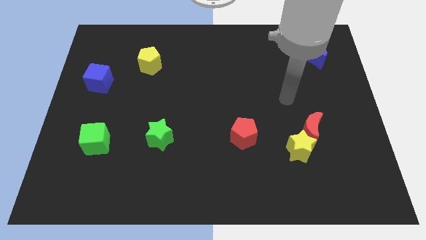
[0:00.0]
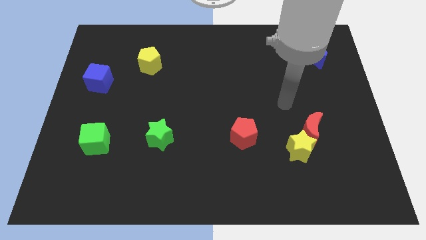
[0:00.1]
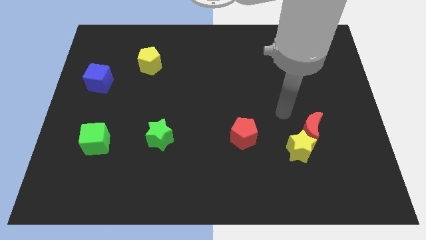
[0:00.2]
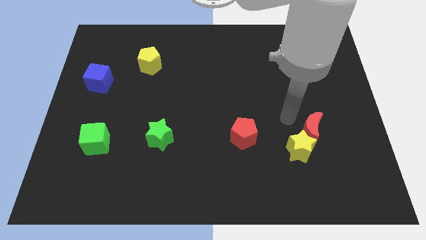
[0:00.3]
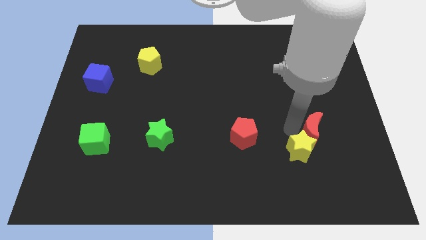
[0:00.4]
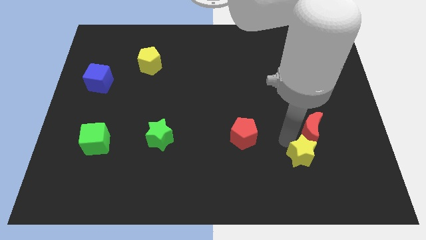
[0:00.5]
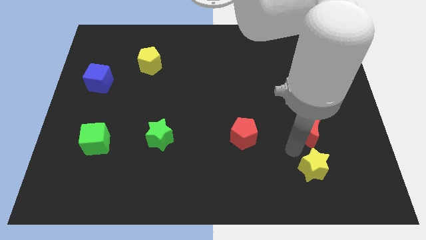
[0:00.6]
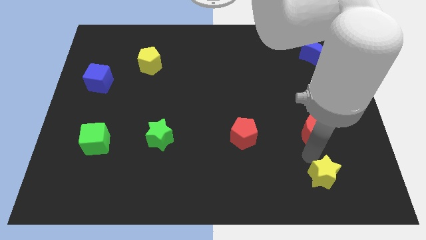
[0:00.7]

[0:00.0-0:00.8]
pull the red moon apart from the yellow star

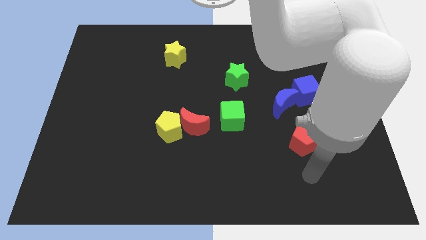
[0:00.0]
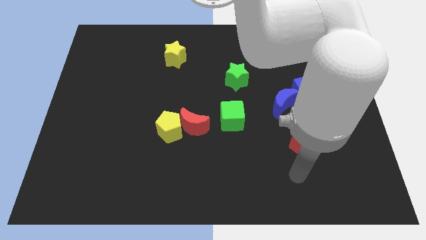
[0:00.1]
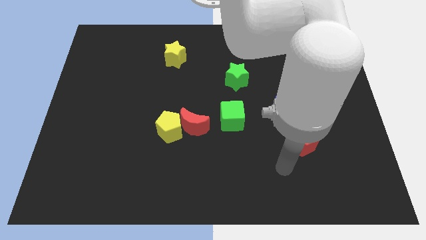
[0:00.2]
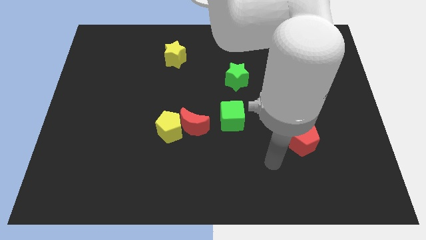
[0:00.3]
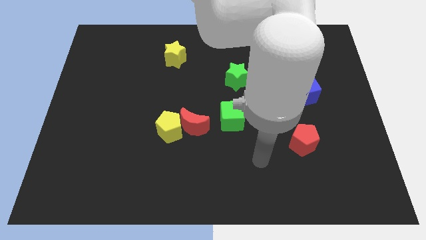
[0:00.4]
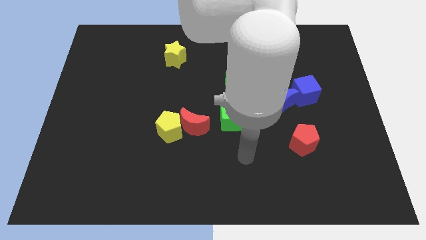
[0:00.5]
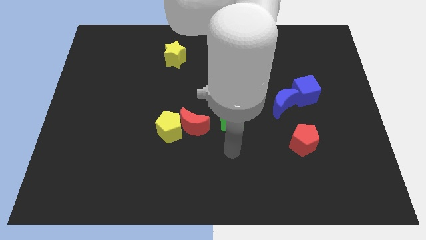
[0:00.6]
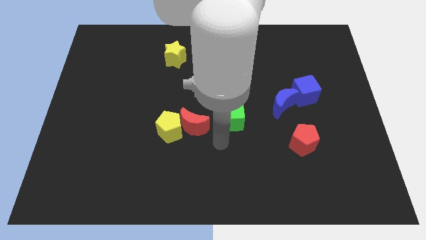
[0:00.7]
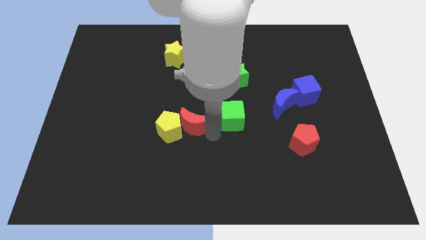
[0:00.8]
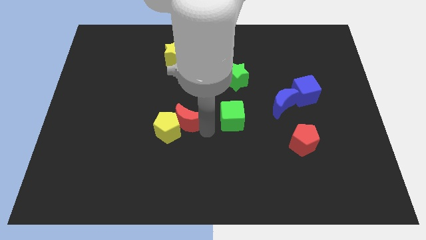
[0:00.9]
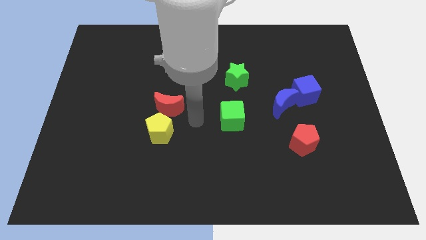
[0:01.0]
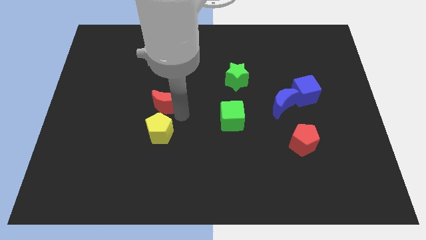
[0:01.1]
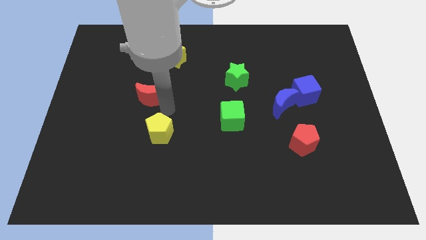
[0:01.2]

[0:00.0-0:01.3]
move the yellow pentagon away from the red moon

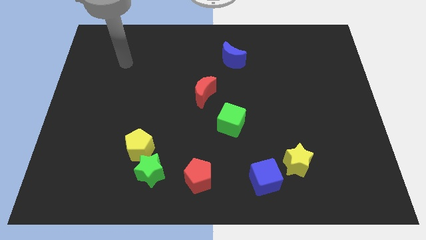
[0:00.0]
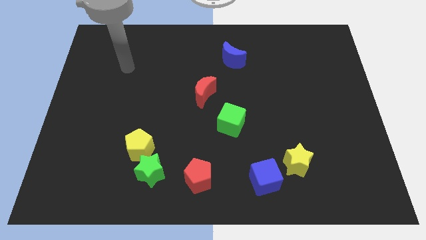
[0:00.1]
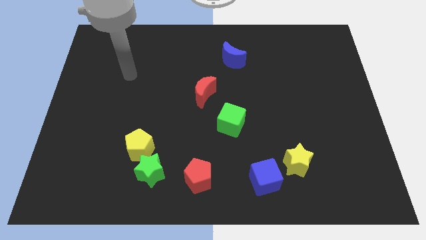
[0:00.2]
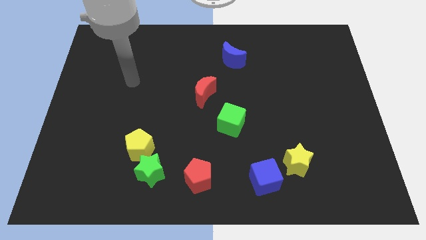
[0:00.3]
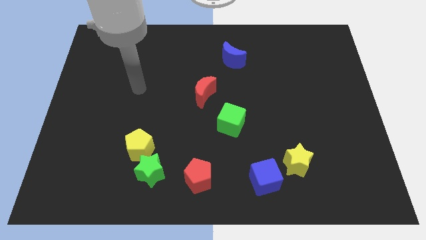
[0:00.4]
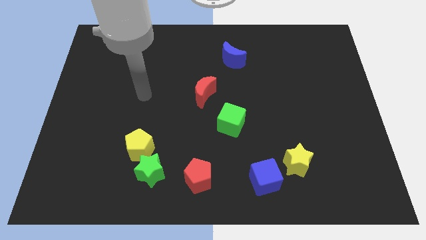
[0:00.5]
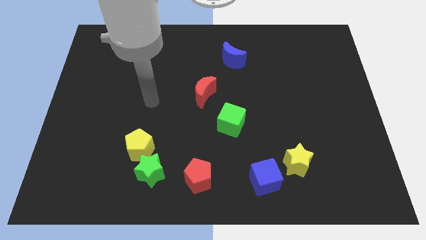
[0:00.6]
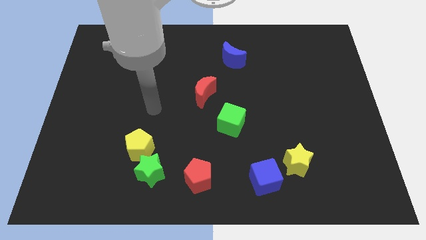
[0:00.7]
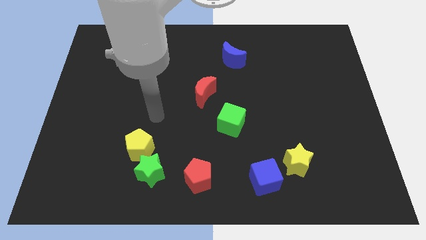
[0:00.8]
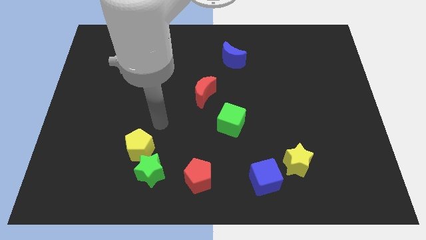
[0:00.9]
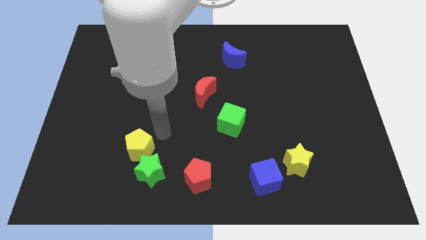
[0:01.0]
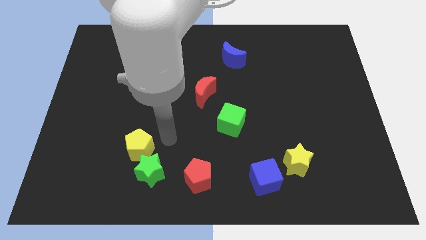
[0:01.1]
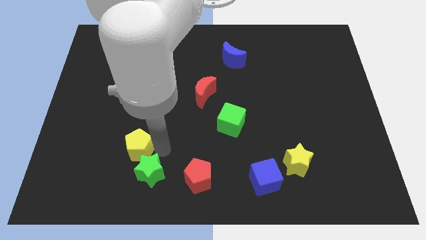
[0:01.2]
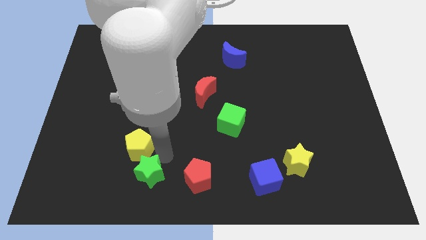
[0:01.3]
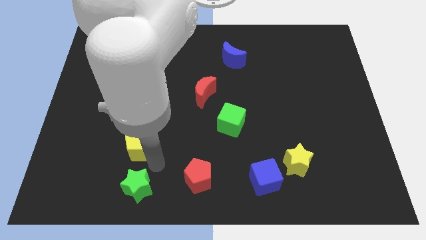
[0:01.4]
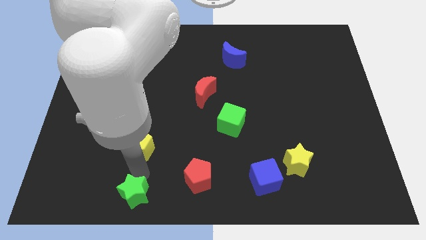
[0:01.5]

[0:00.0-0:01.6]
move the yellow pentagon away from the green star

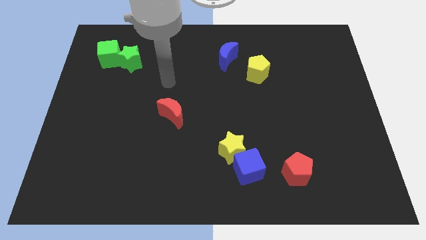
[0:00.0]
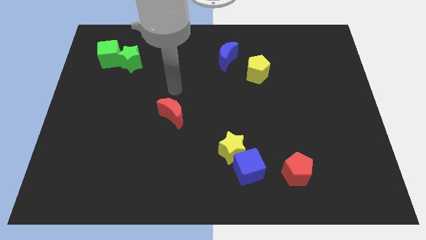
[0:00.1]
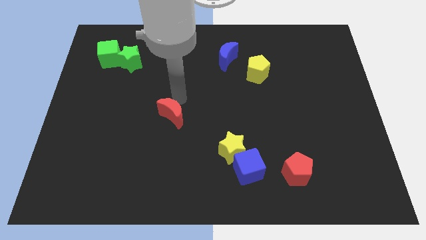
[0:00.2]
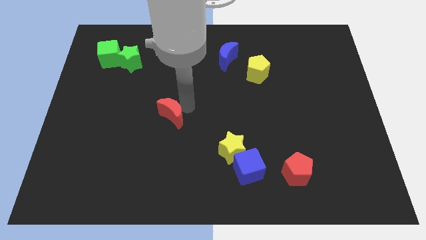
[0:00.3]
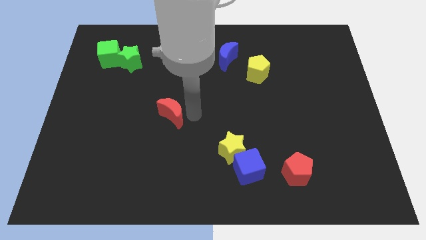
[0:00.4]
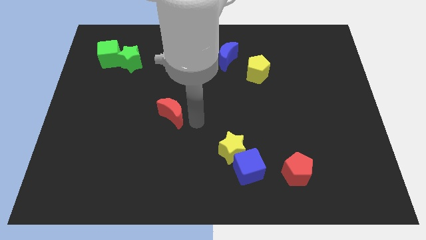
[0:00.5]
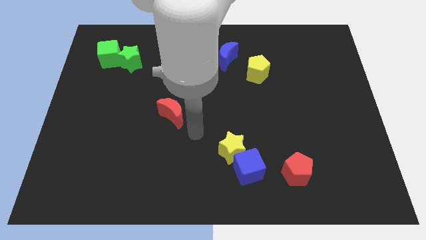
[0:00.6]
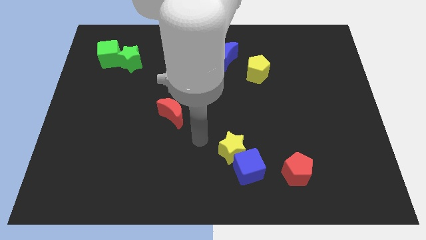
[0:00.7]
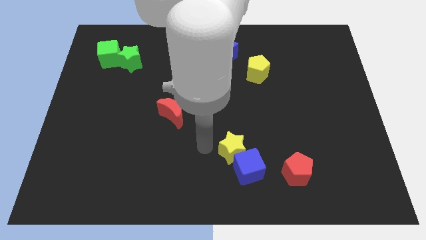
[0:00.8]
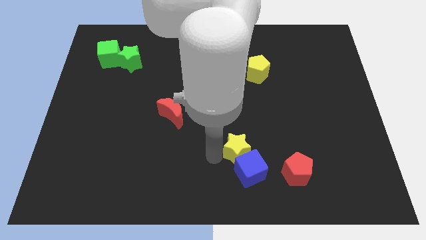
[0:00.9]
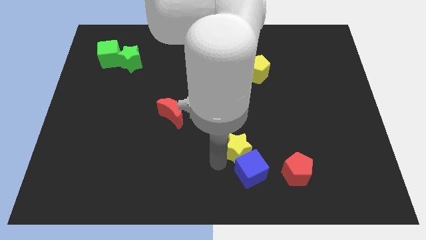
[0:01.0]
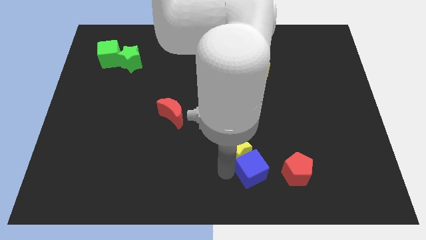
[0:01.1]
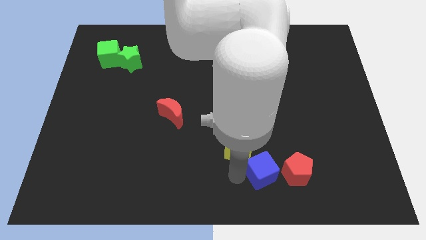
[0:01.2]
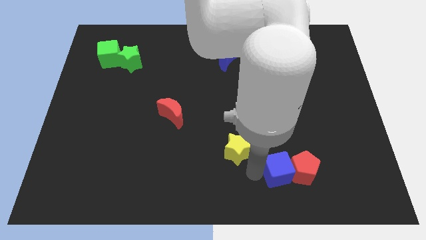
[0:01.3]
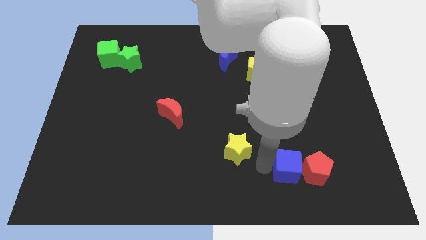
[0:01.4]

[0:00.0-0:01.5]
pull the yellow star apart from the blue cube

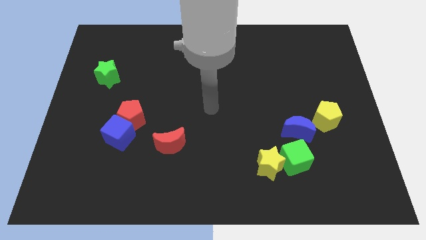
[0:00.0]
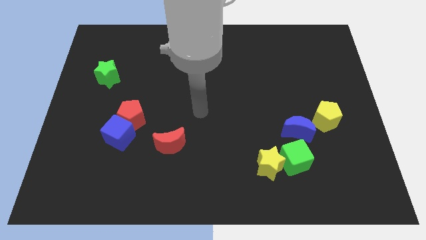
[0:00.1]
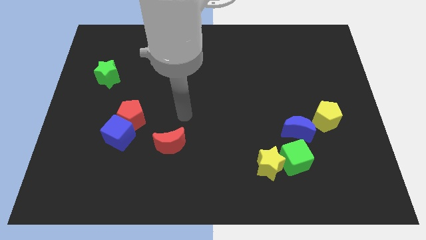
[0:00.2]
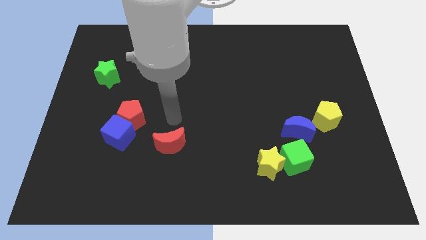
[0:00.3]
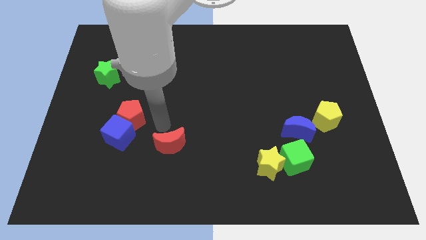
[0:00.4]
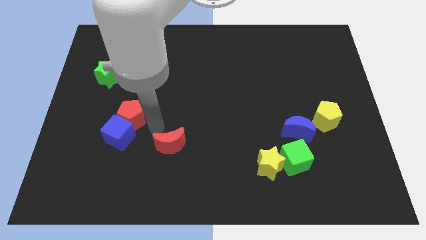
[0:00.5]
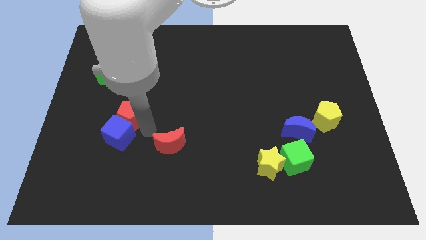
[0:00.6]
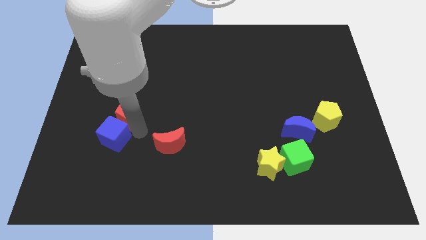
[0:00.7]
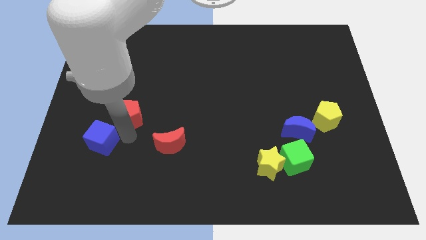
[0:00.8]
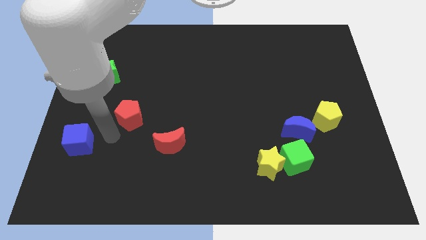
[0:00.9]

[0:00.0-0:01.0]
pull the red pentagon apart from the blue cube

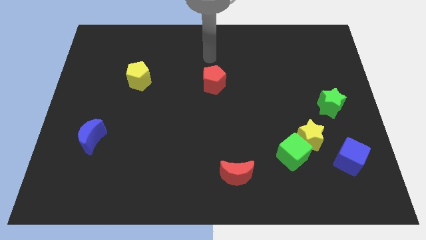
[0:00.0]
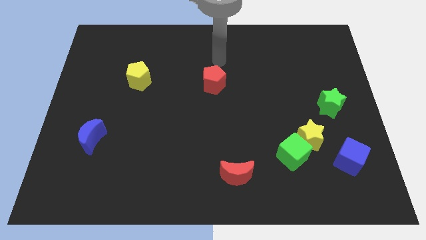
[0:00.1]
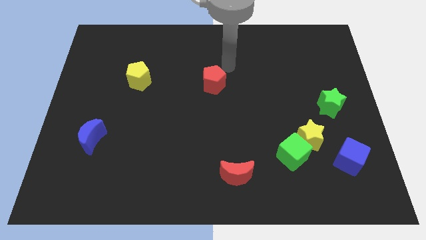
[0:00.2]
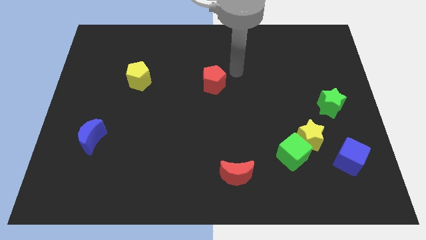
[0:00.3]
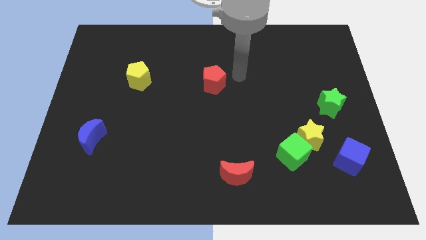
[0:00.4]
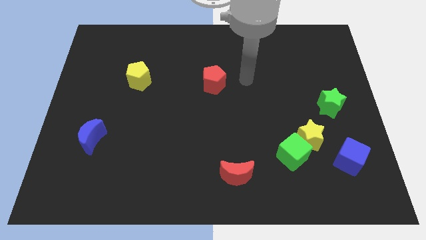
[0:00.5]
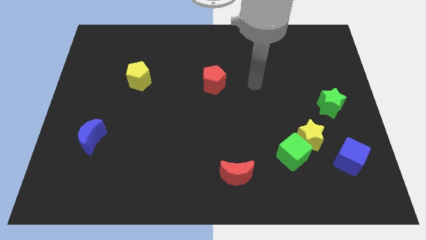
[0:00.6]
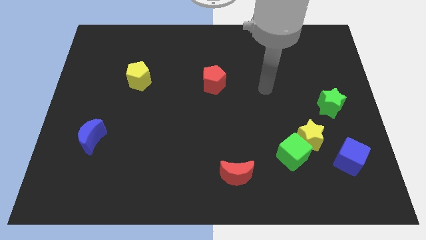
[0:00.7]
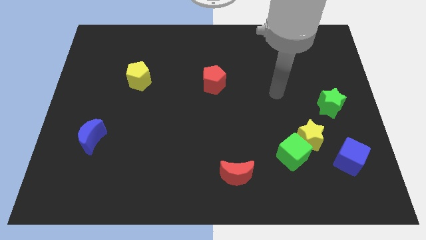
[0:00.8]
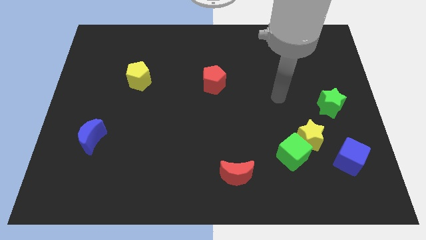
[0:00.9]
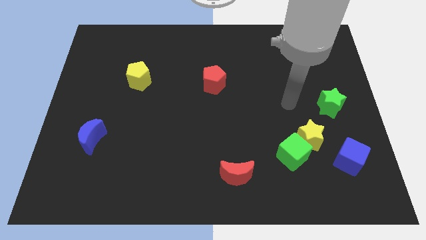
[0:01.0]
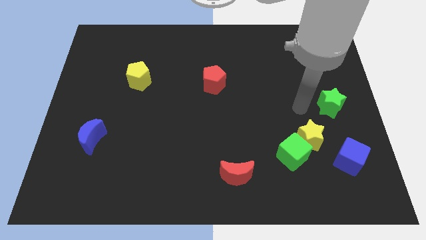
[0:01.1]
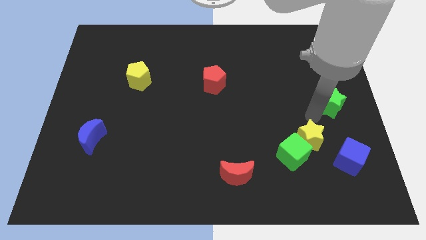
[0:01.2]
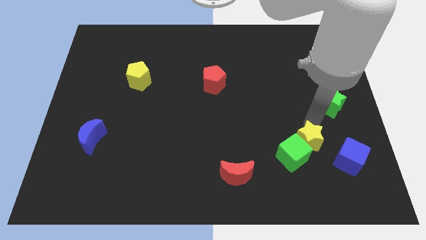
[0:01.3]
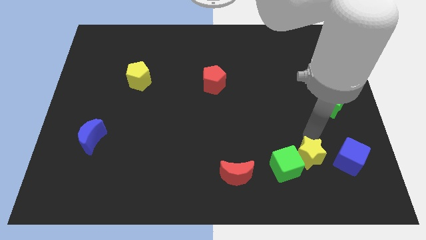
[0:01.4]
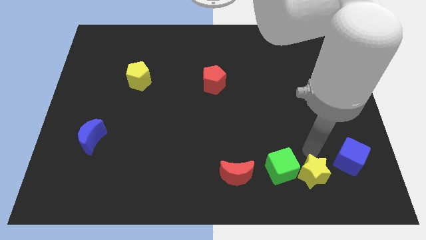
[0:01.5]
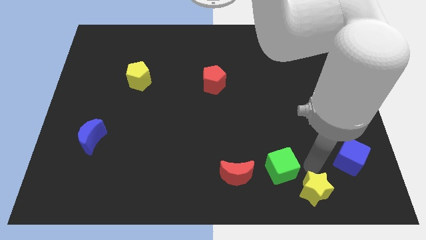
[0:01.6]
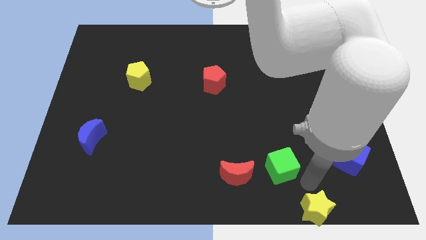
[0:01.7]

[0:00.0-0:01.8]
separate the green cube from the yellow star

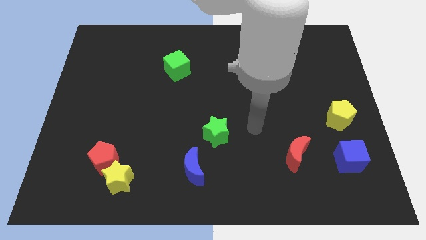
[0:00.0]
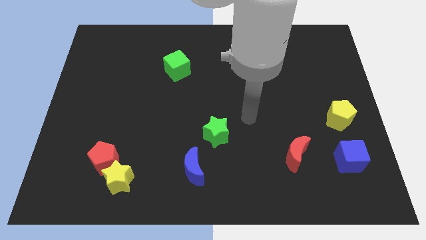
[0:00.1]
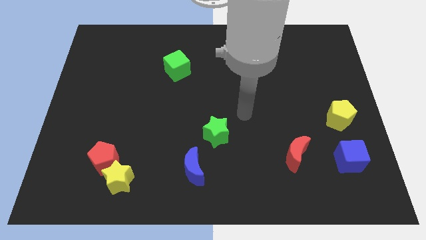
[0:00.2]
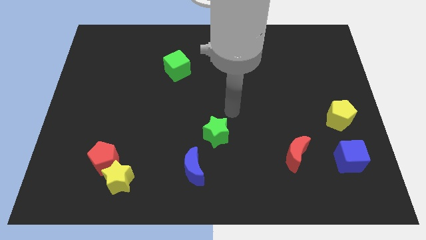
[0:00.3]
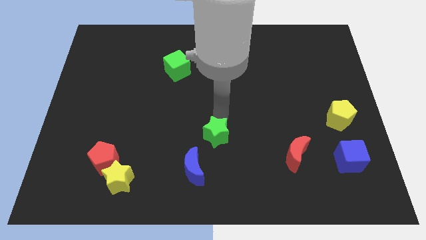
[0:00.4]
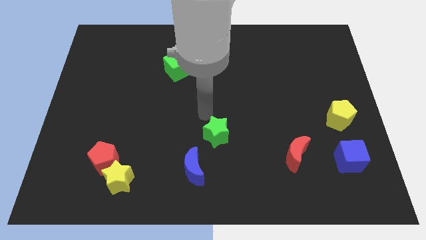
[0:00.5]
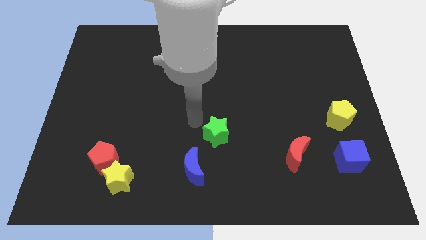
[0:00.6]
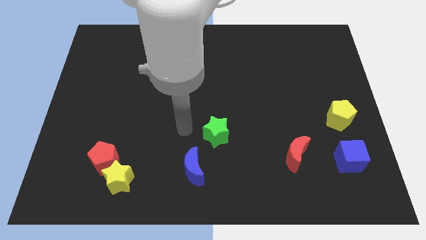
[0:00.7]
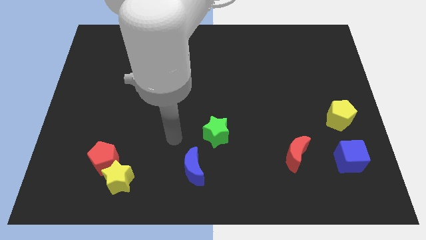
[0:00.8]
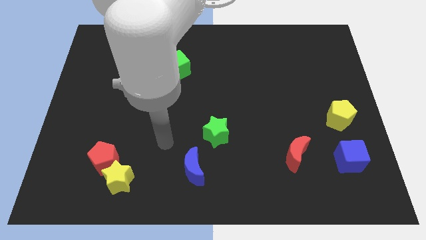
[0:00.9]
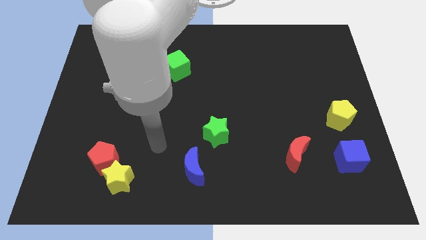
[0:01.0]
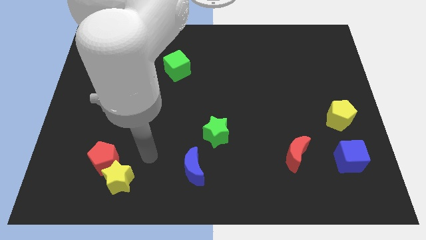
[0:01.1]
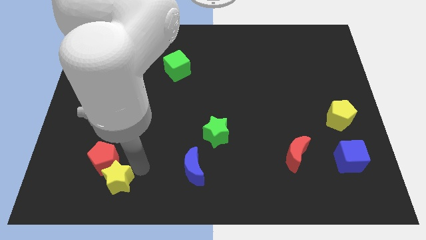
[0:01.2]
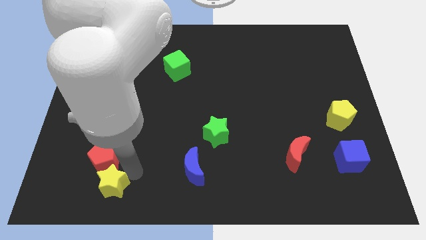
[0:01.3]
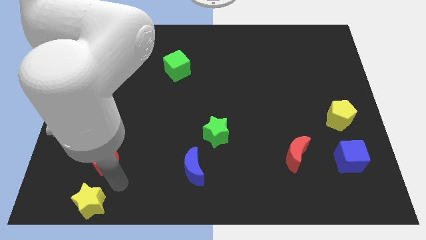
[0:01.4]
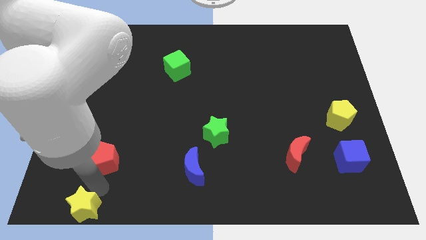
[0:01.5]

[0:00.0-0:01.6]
separate the red pentagon from the yellow star
